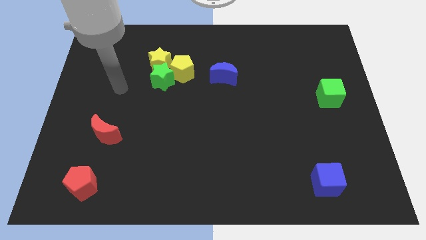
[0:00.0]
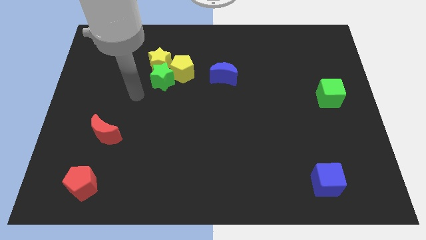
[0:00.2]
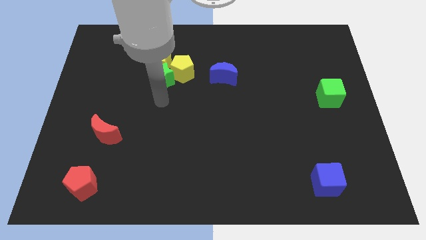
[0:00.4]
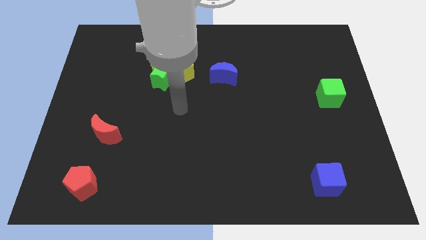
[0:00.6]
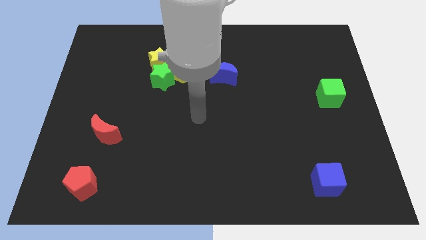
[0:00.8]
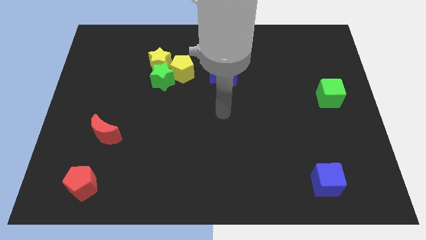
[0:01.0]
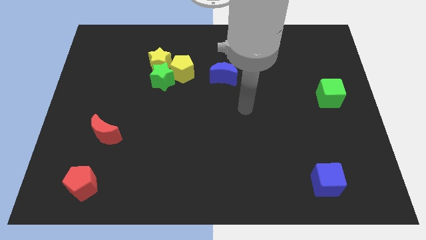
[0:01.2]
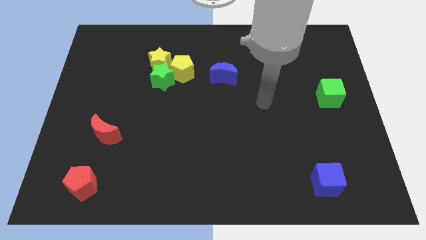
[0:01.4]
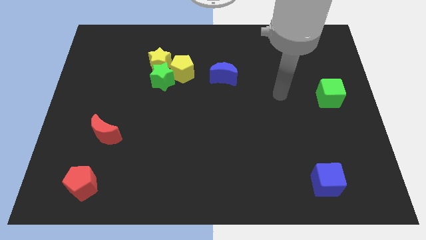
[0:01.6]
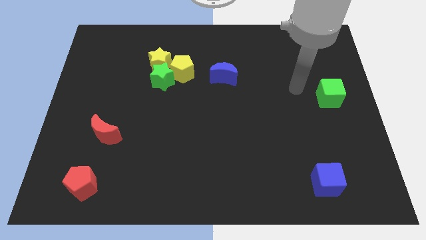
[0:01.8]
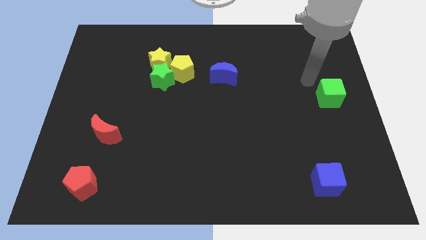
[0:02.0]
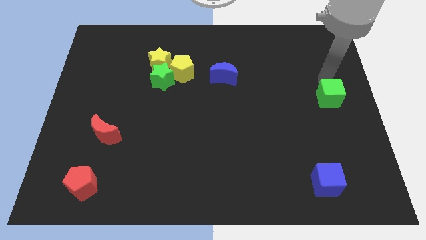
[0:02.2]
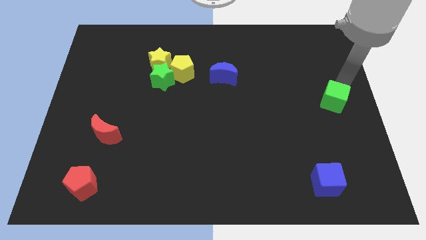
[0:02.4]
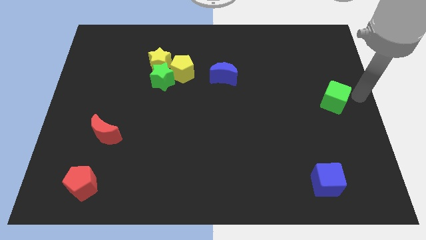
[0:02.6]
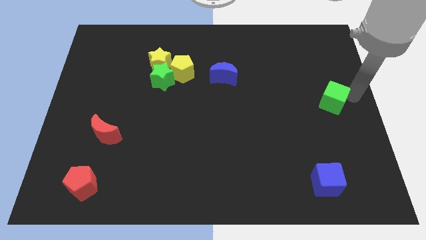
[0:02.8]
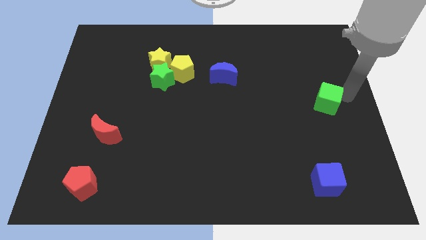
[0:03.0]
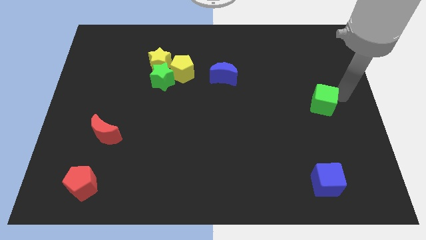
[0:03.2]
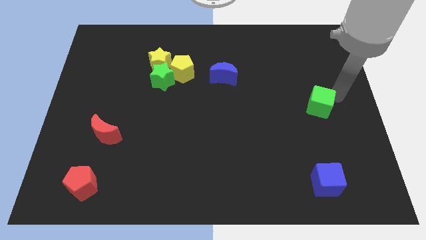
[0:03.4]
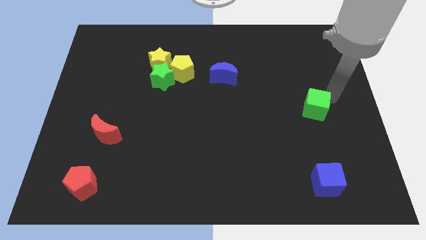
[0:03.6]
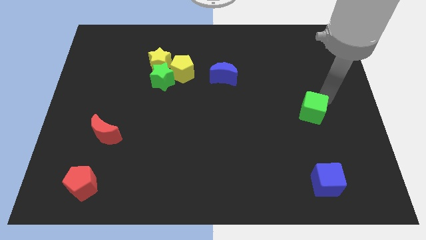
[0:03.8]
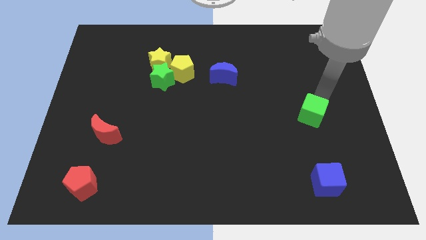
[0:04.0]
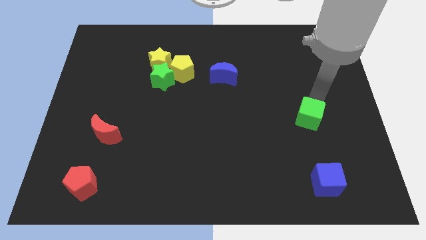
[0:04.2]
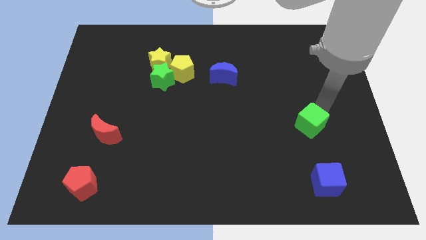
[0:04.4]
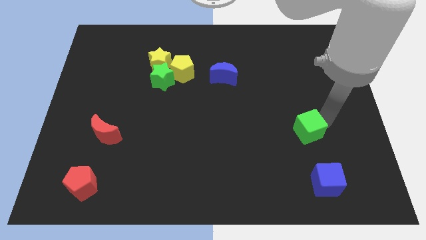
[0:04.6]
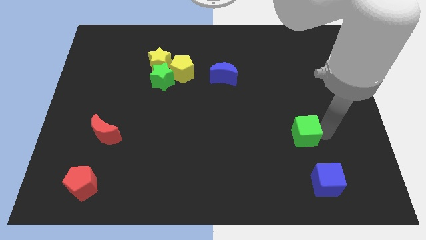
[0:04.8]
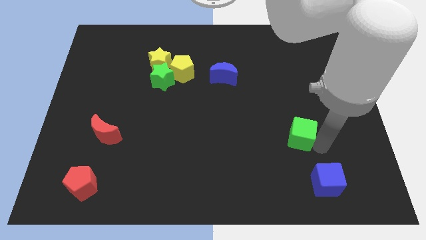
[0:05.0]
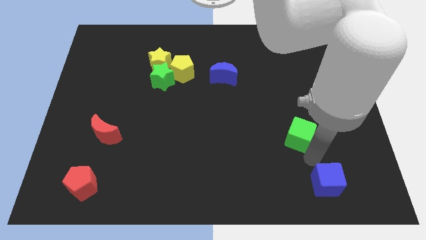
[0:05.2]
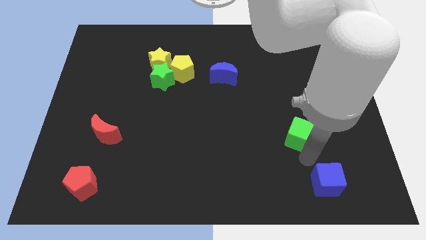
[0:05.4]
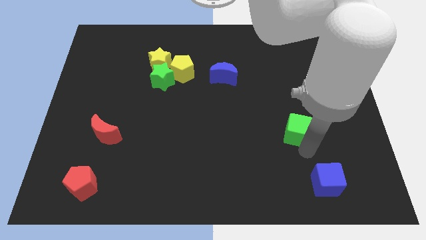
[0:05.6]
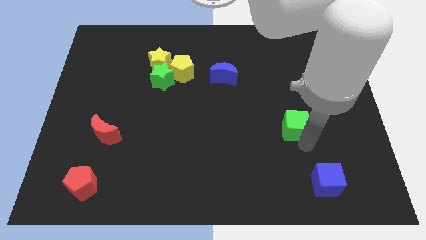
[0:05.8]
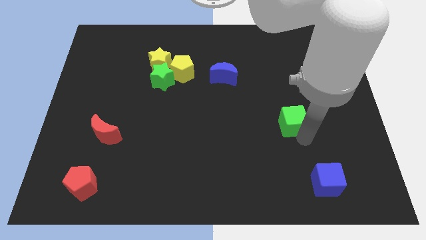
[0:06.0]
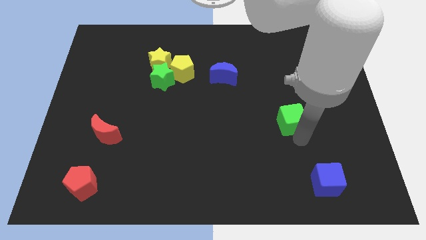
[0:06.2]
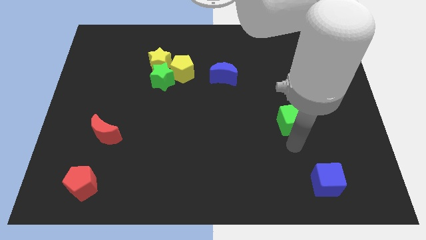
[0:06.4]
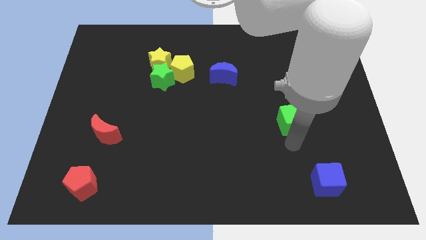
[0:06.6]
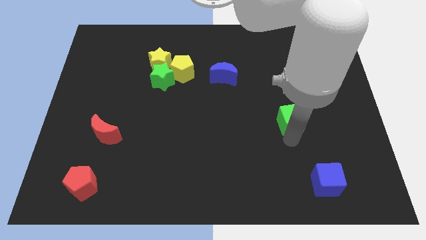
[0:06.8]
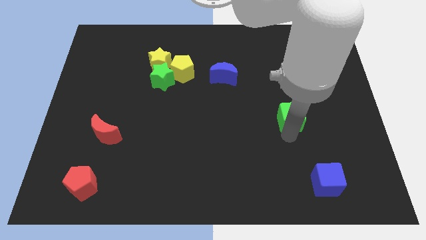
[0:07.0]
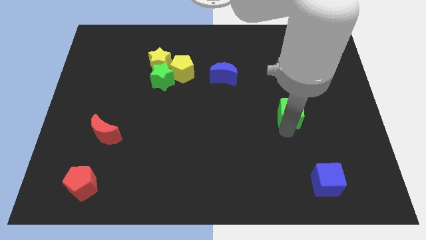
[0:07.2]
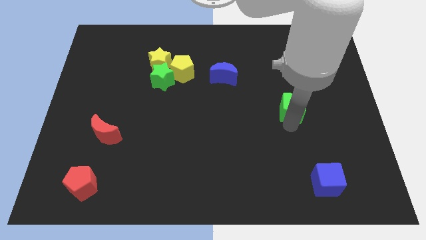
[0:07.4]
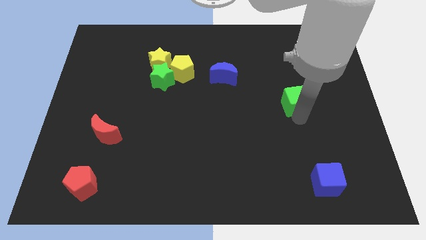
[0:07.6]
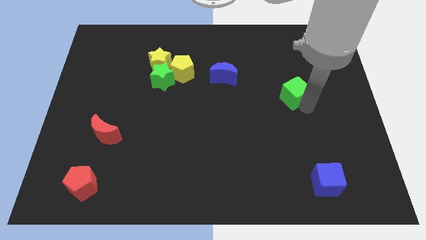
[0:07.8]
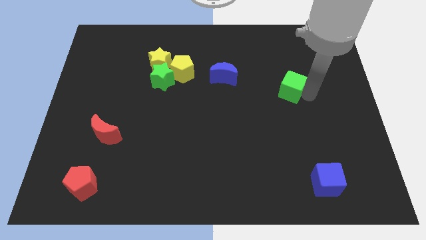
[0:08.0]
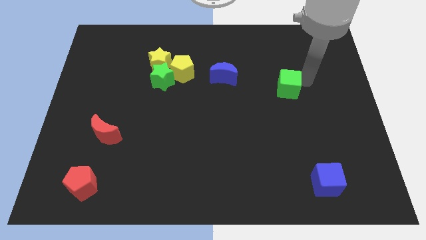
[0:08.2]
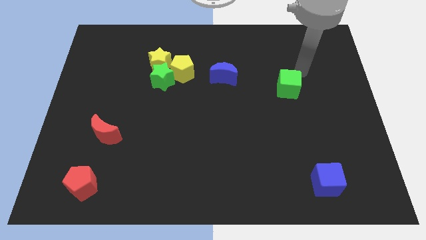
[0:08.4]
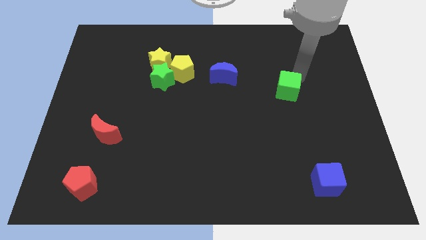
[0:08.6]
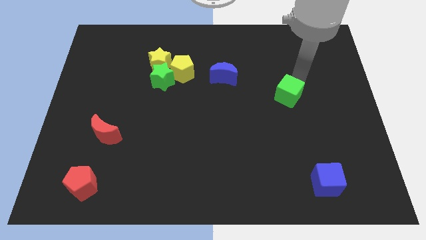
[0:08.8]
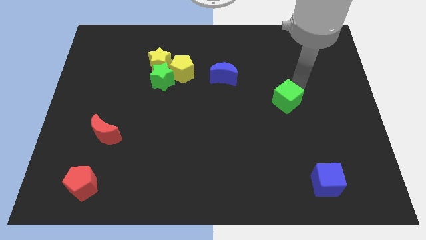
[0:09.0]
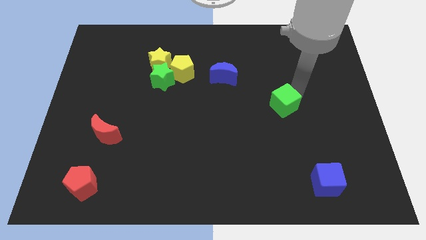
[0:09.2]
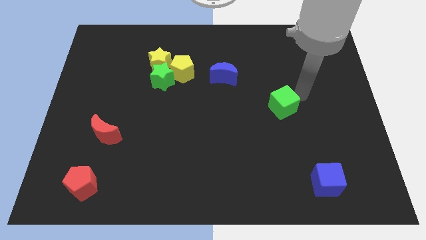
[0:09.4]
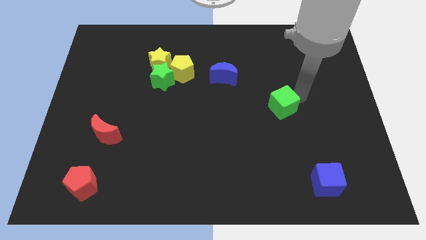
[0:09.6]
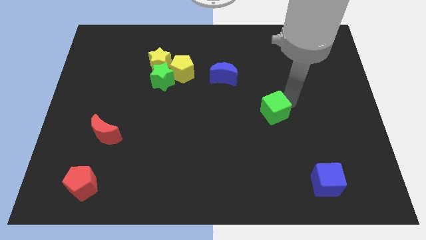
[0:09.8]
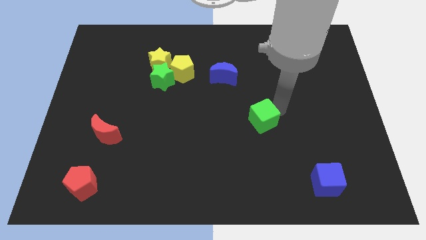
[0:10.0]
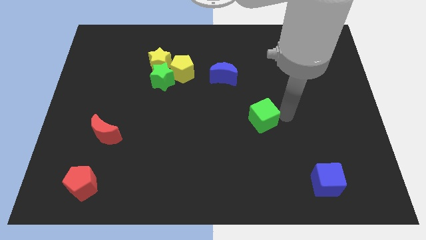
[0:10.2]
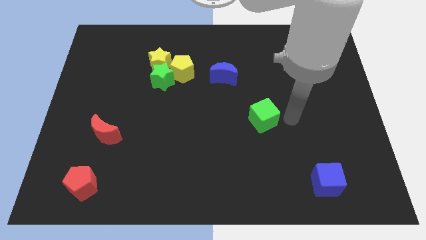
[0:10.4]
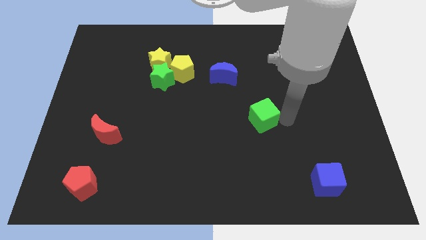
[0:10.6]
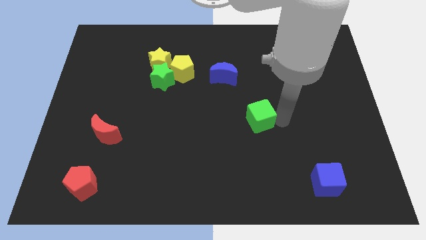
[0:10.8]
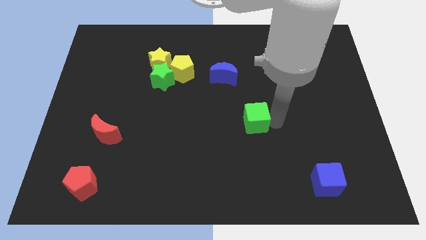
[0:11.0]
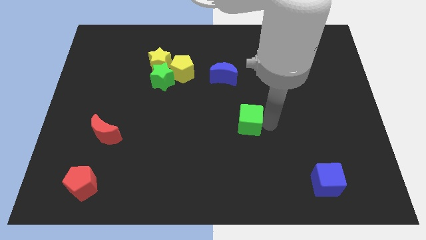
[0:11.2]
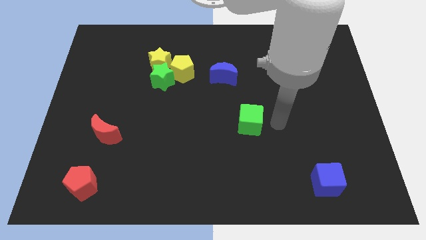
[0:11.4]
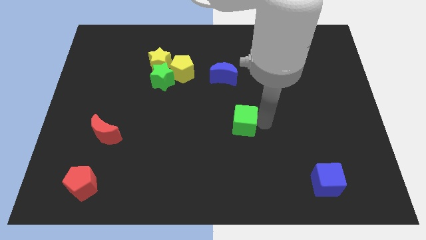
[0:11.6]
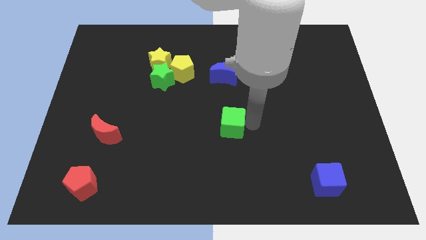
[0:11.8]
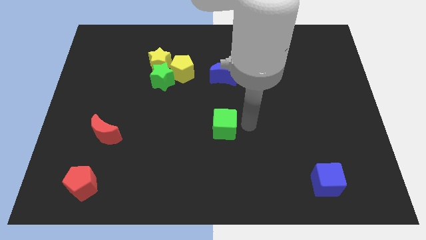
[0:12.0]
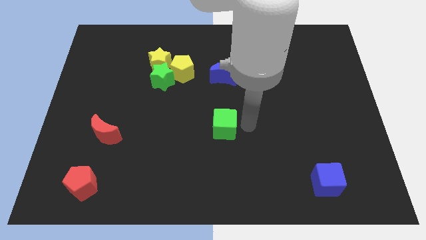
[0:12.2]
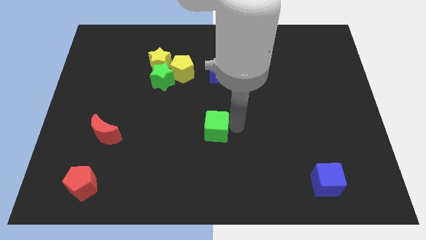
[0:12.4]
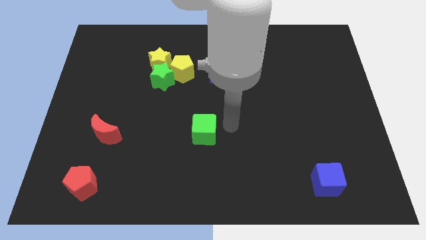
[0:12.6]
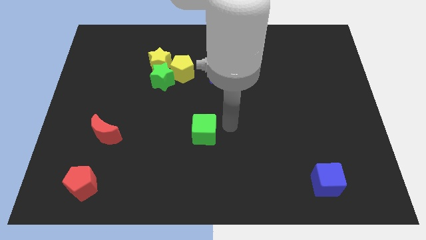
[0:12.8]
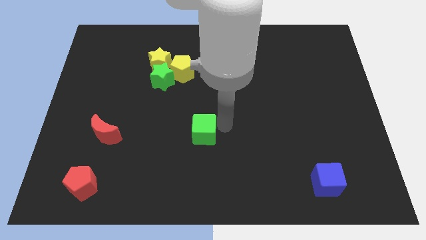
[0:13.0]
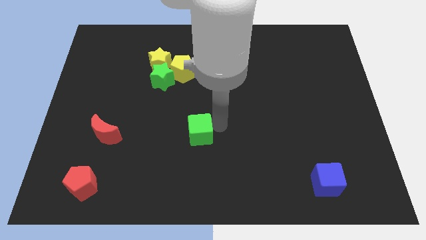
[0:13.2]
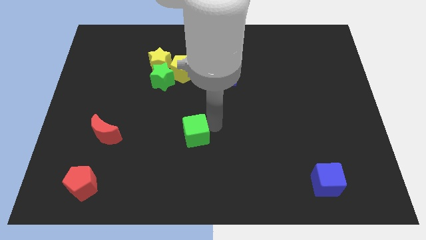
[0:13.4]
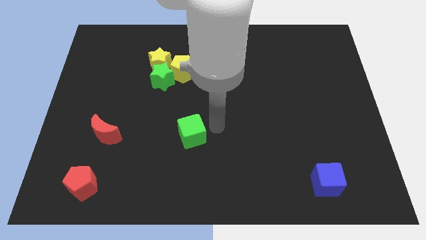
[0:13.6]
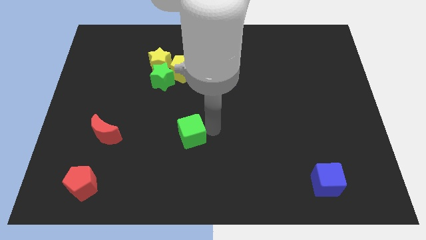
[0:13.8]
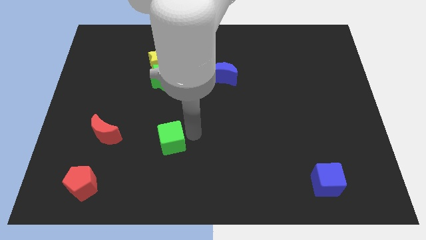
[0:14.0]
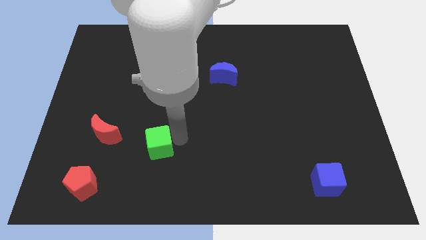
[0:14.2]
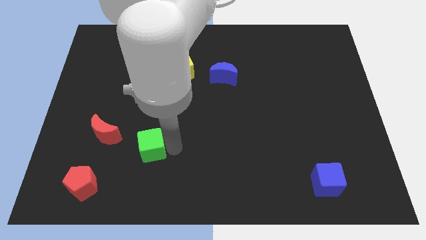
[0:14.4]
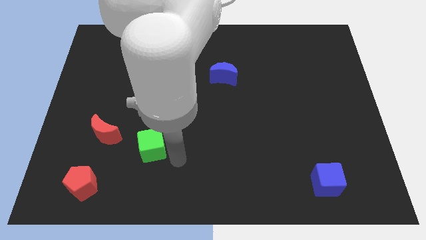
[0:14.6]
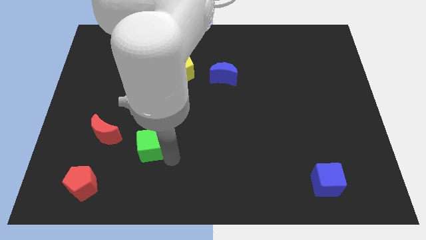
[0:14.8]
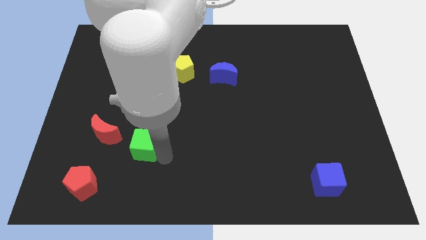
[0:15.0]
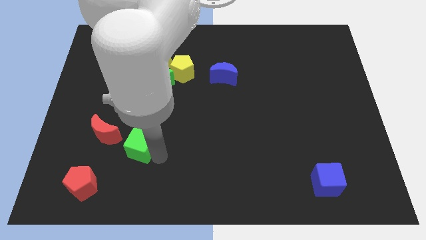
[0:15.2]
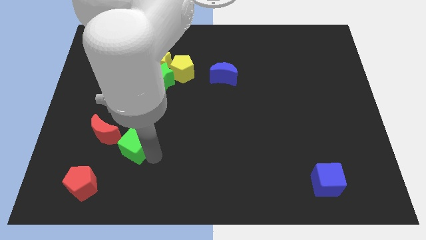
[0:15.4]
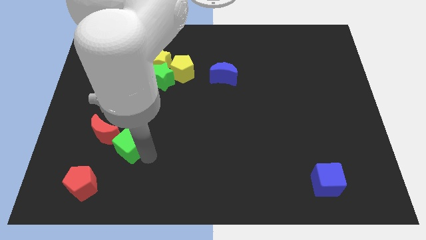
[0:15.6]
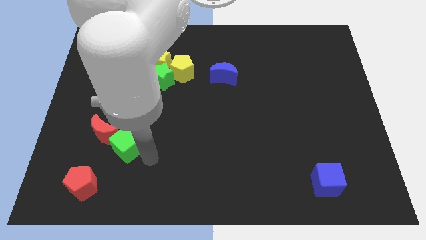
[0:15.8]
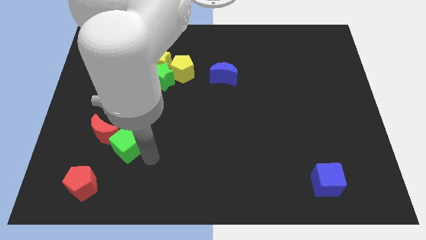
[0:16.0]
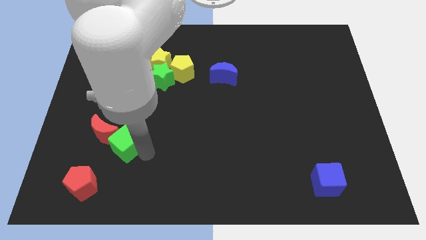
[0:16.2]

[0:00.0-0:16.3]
slide the green cube close to the red moon

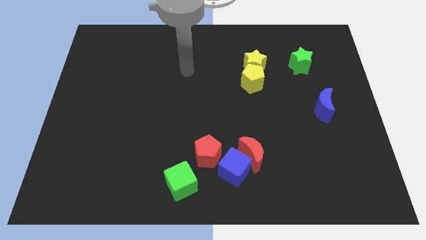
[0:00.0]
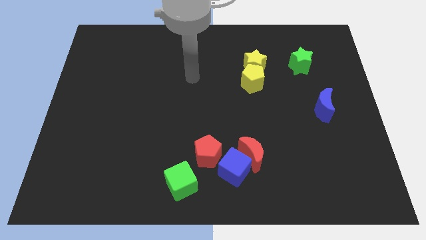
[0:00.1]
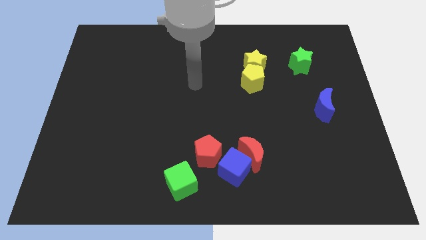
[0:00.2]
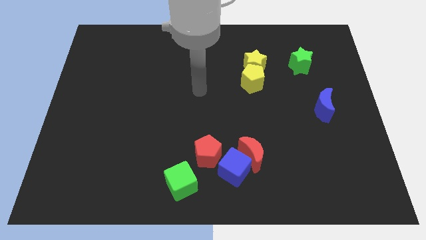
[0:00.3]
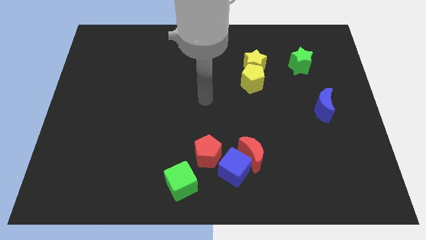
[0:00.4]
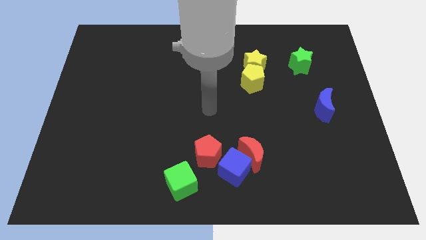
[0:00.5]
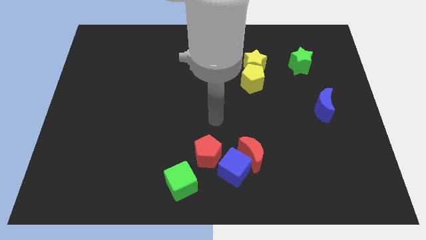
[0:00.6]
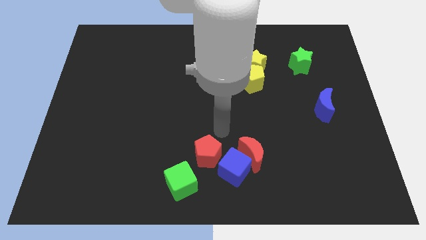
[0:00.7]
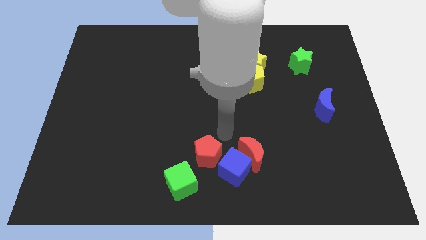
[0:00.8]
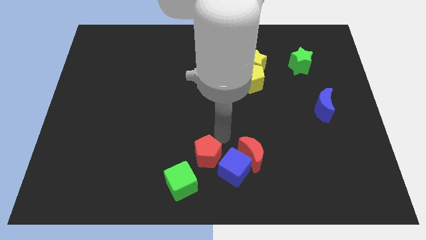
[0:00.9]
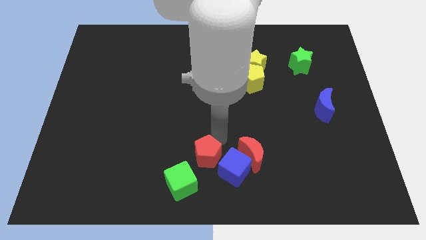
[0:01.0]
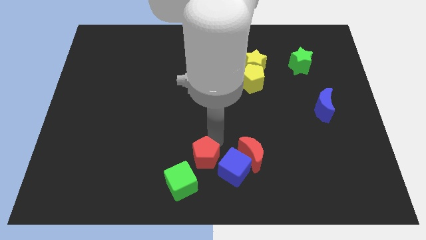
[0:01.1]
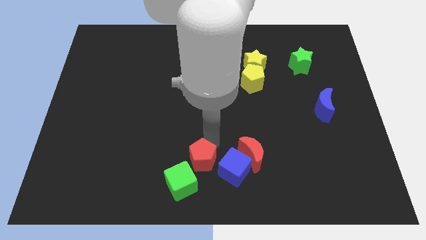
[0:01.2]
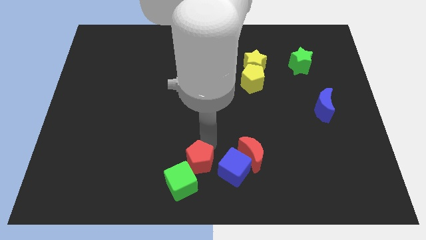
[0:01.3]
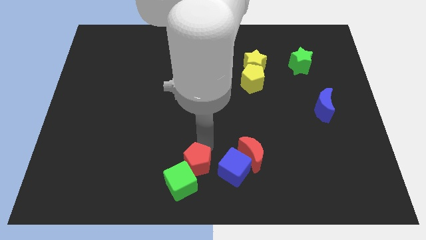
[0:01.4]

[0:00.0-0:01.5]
push the red pentagon towards the green cube
